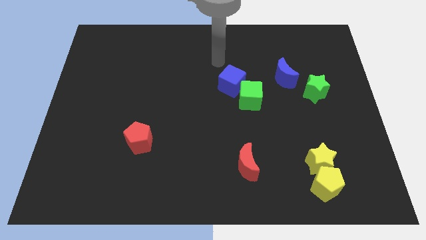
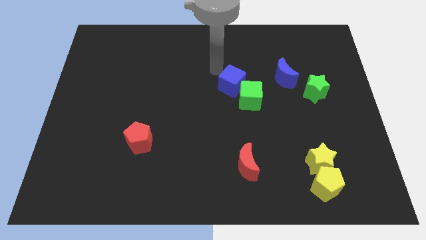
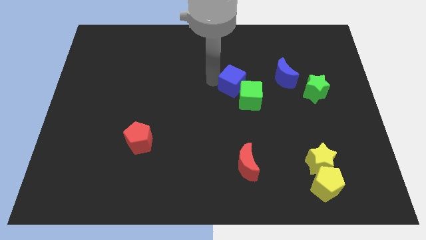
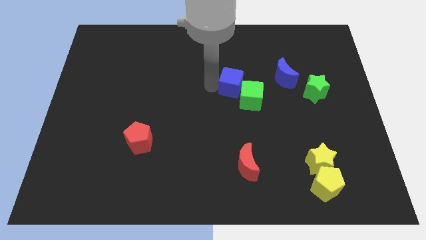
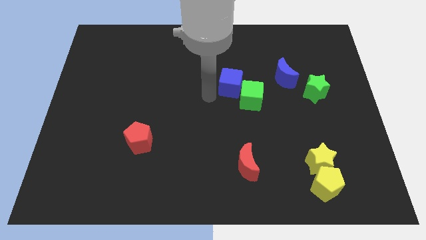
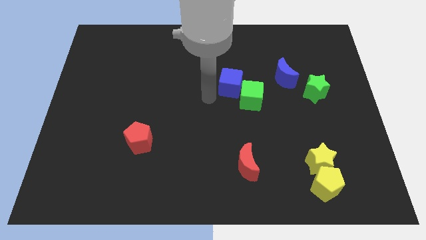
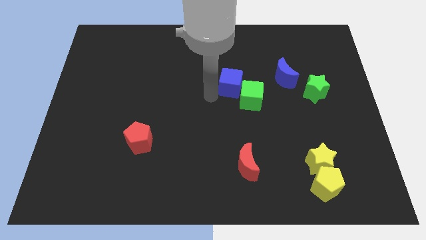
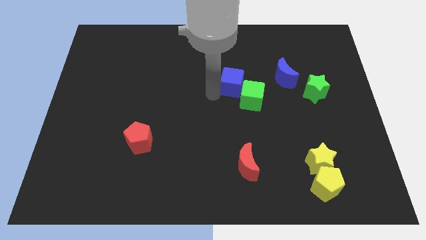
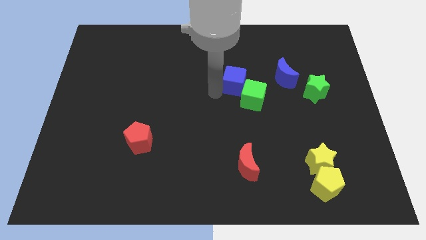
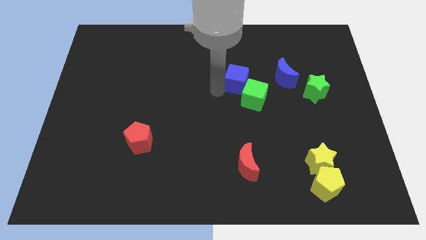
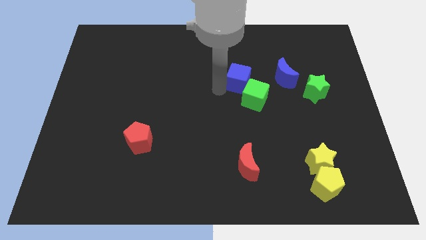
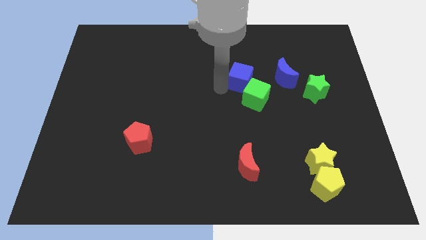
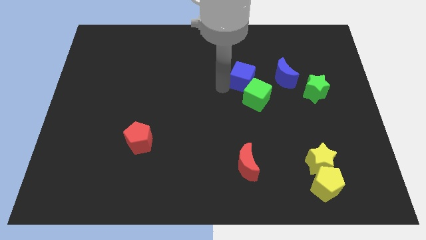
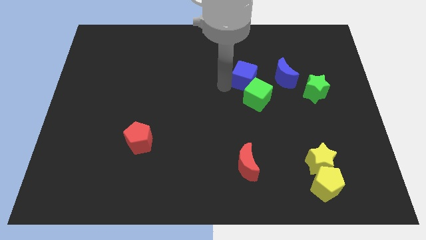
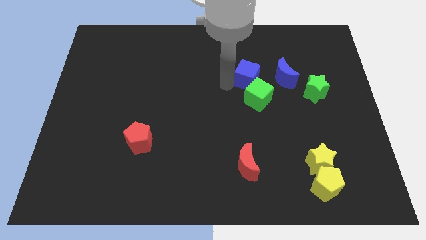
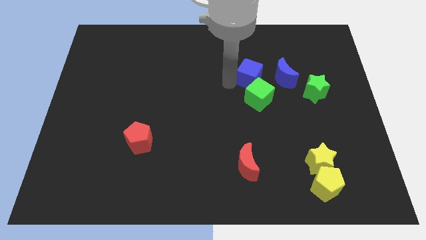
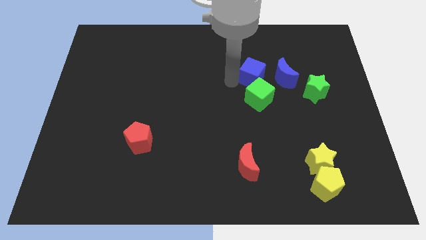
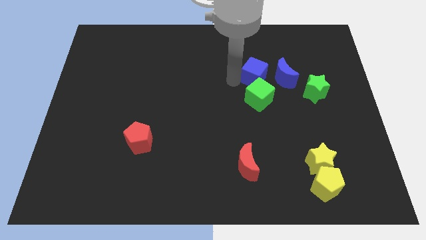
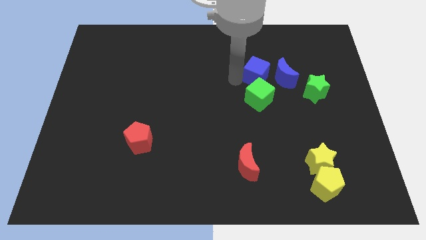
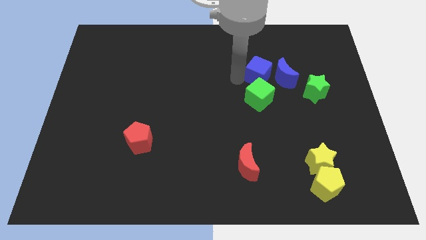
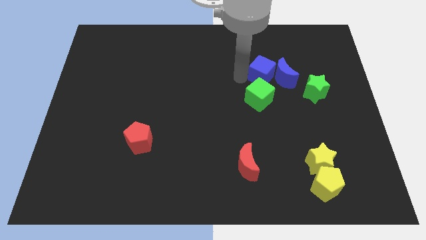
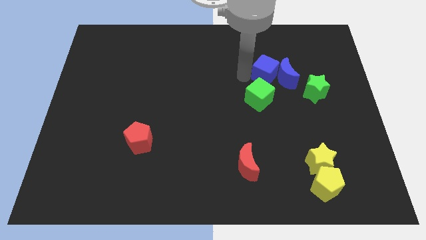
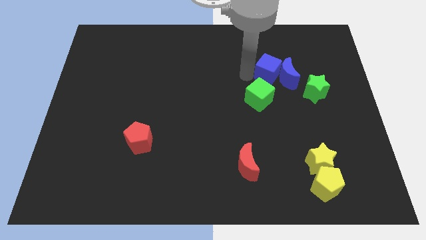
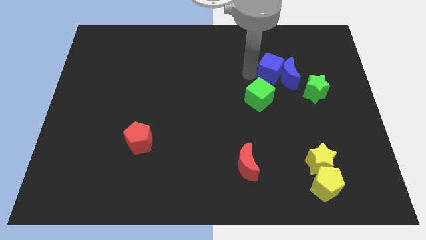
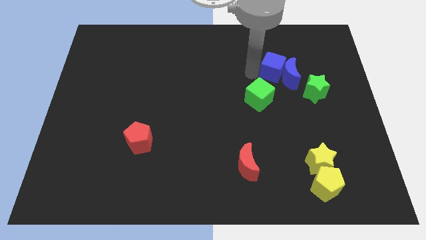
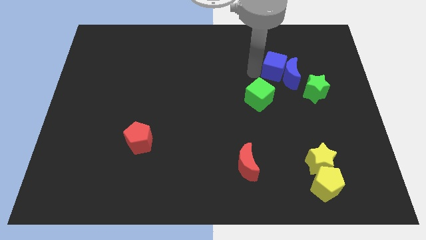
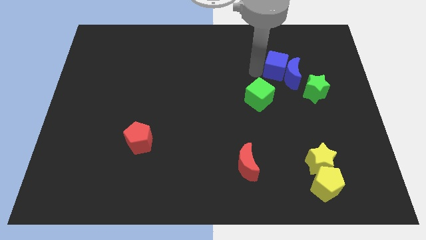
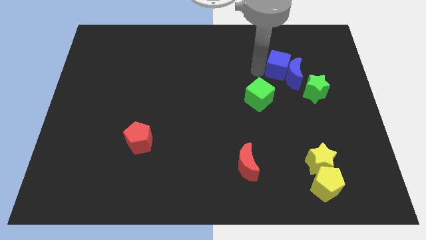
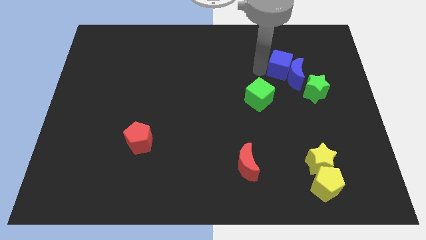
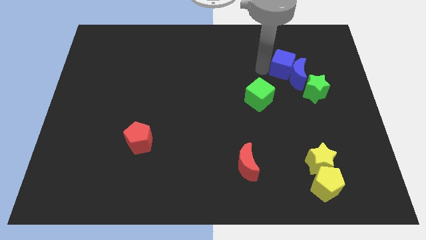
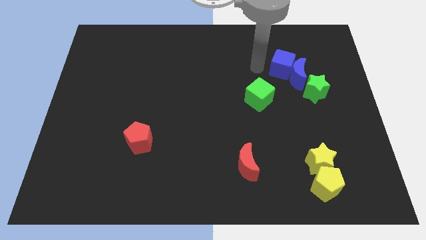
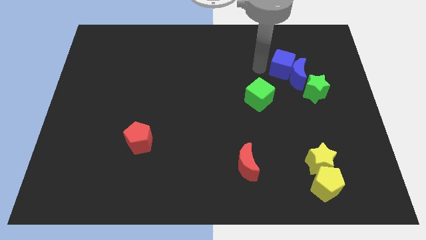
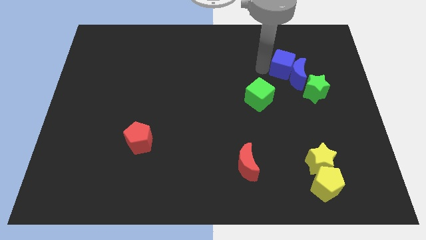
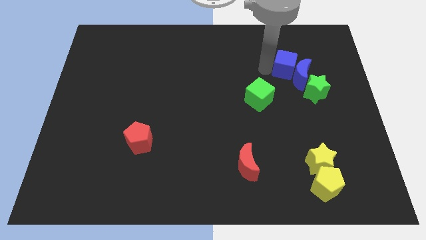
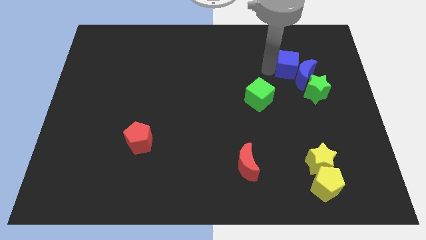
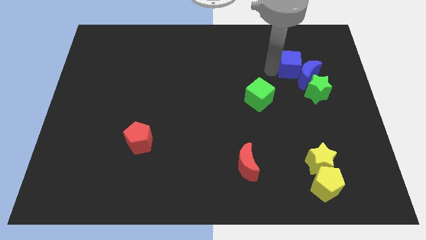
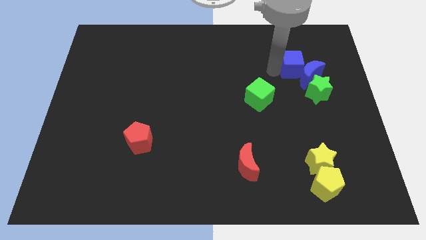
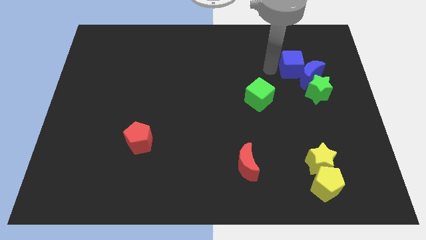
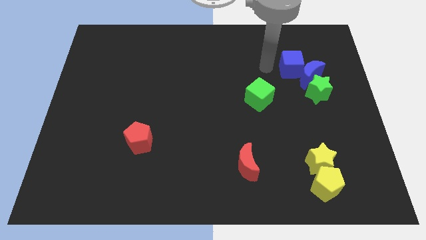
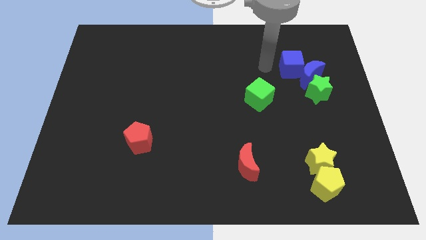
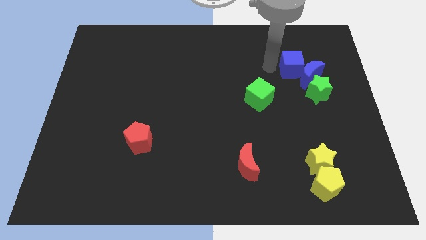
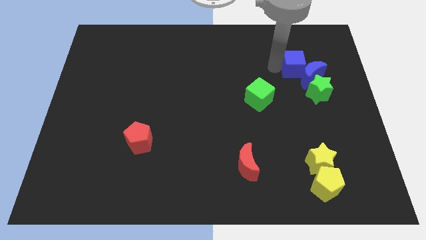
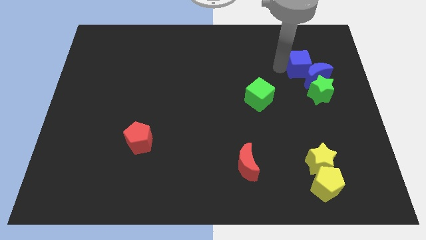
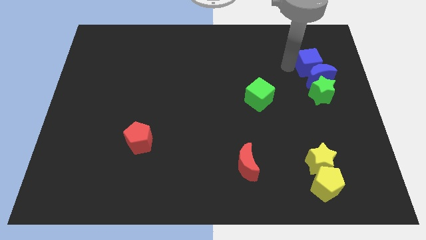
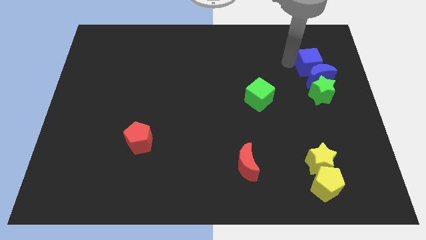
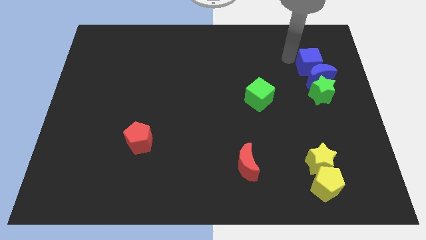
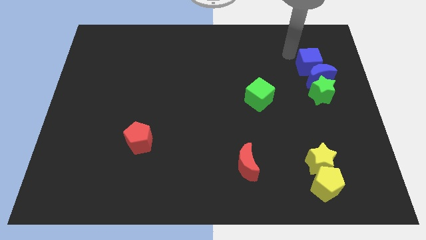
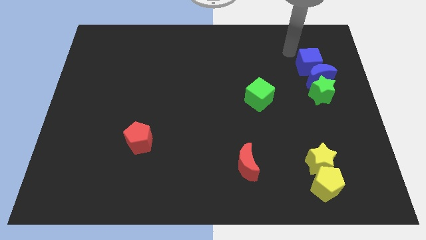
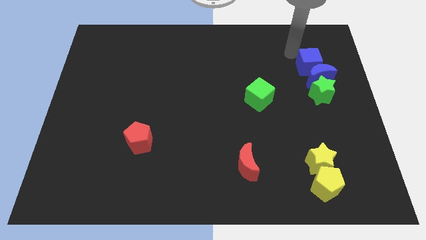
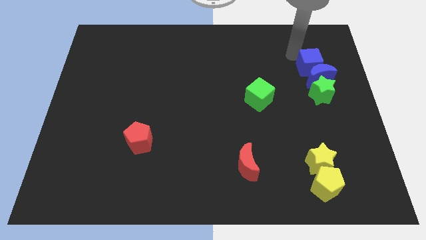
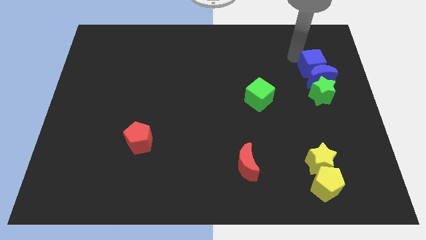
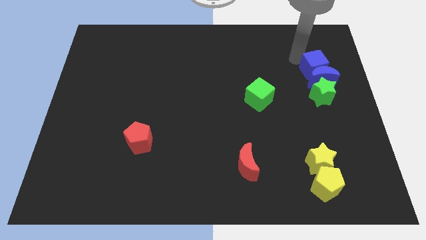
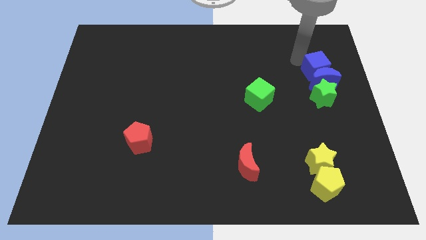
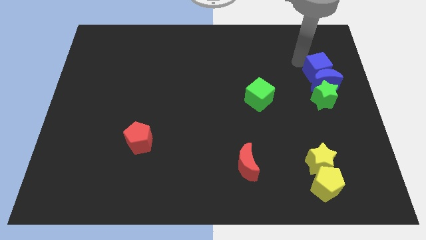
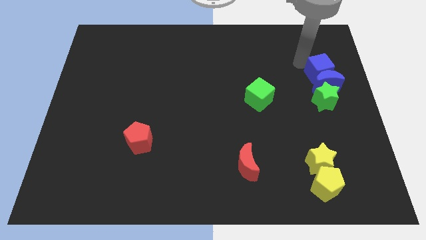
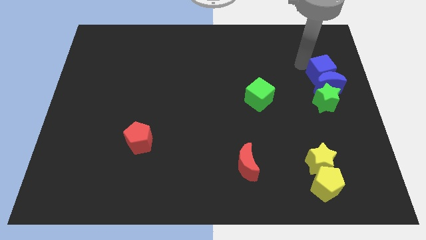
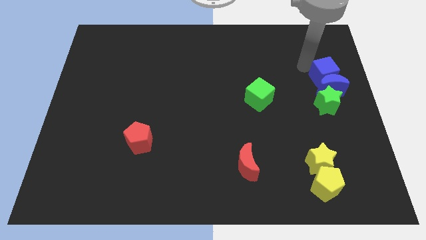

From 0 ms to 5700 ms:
put the blue cube to the right side of the board
